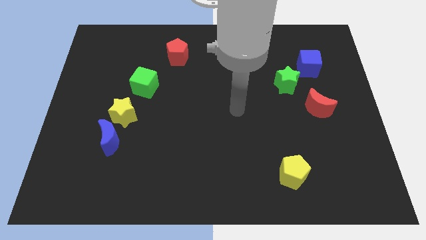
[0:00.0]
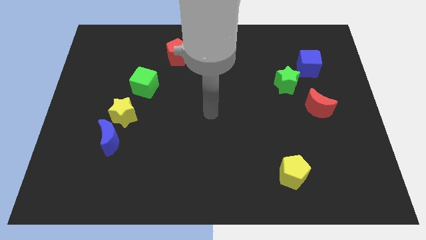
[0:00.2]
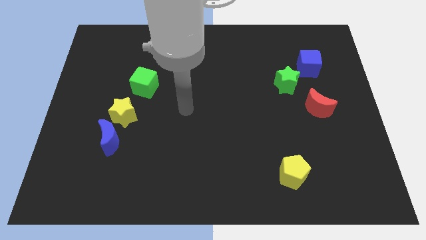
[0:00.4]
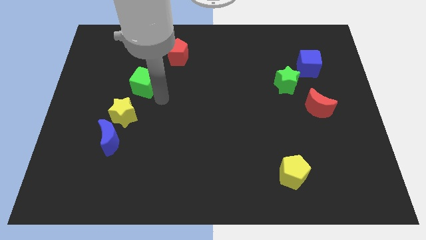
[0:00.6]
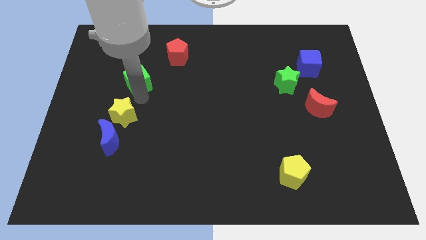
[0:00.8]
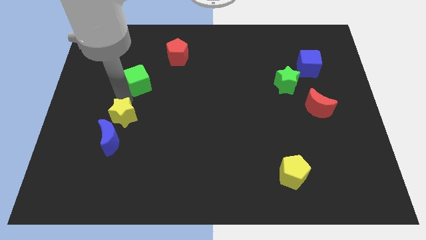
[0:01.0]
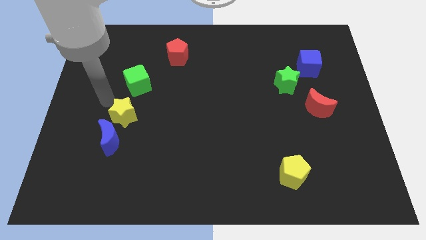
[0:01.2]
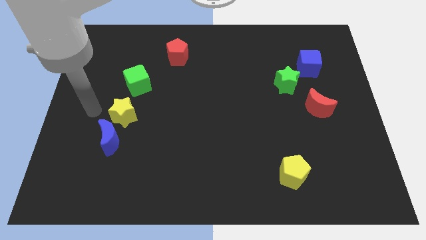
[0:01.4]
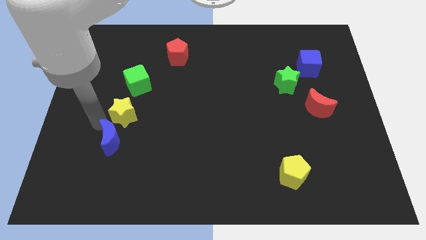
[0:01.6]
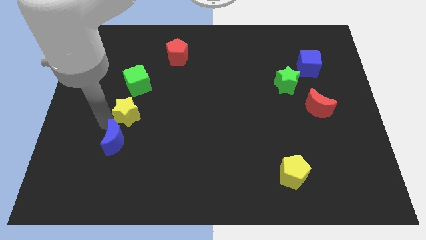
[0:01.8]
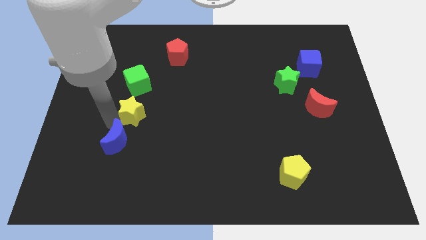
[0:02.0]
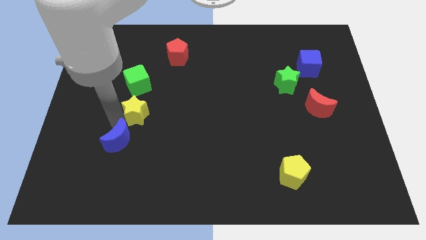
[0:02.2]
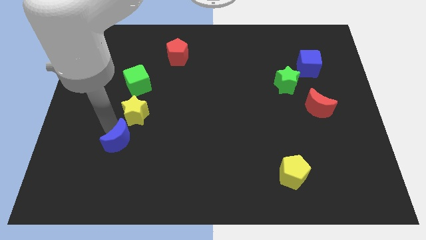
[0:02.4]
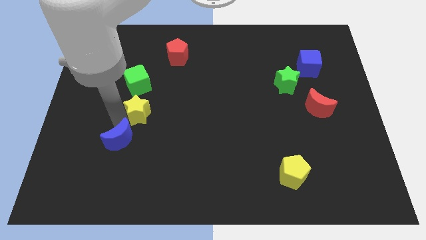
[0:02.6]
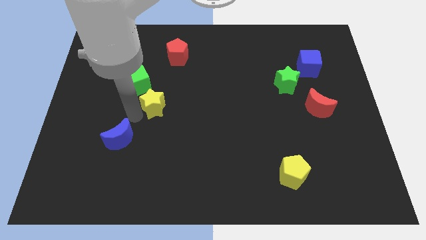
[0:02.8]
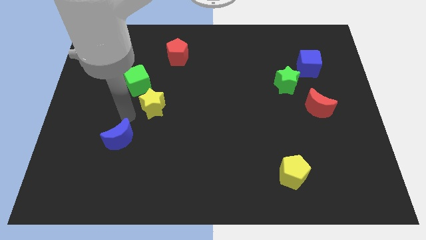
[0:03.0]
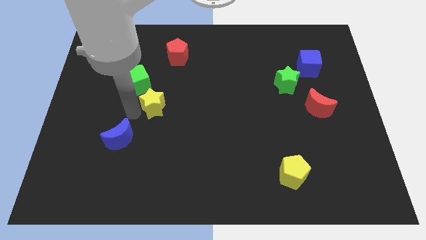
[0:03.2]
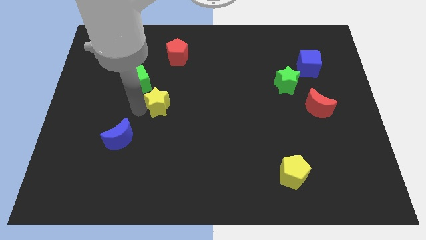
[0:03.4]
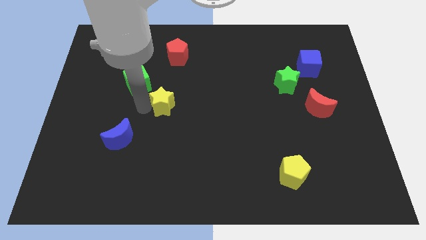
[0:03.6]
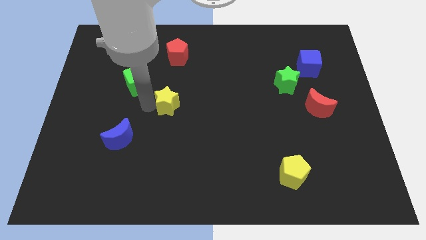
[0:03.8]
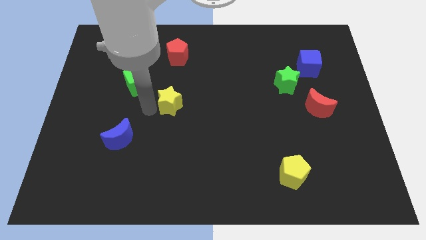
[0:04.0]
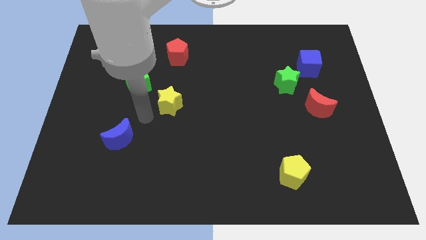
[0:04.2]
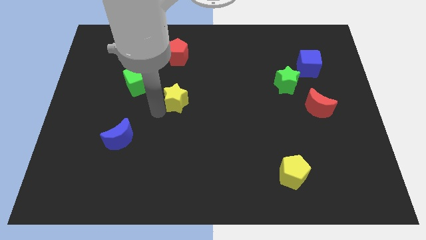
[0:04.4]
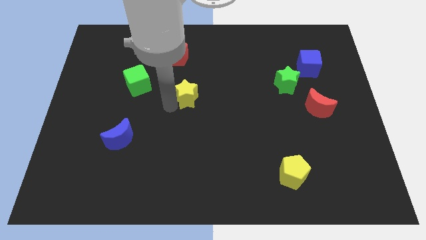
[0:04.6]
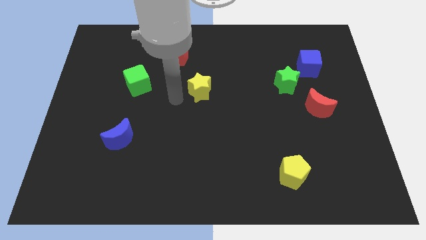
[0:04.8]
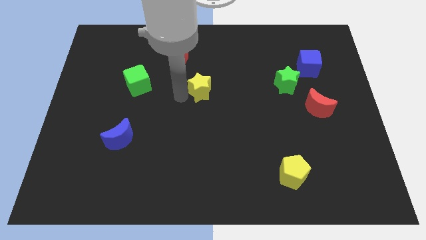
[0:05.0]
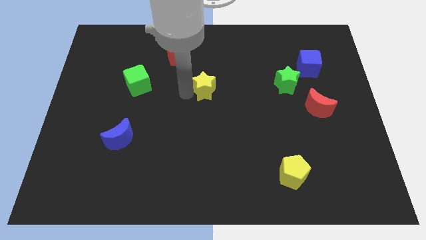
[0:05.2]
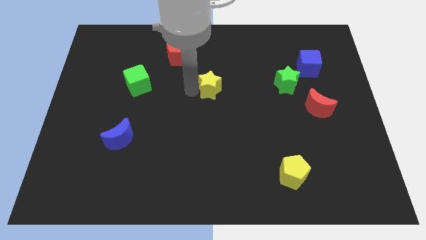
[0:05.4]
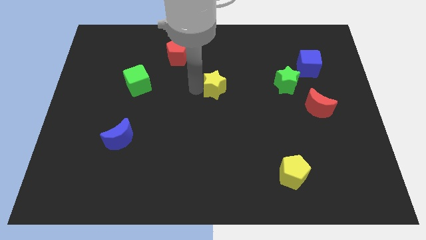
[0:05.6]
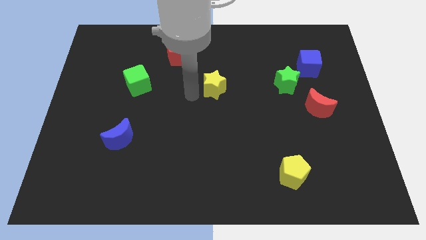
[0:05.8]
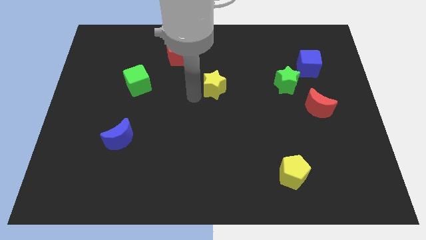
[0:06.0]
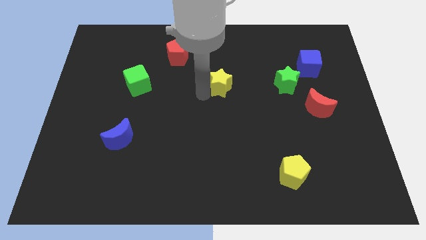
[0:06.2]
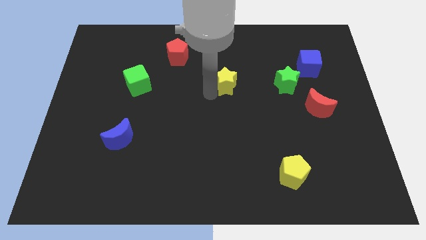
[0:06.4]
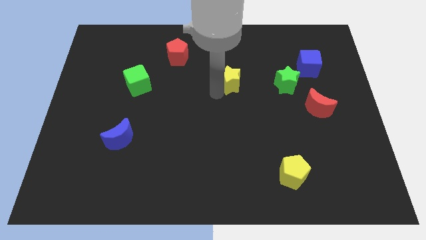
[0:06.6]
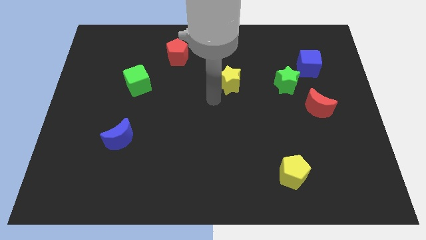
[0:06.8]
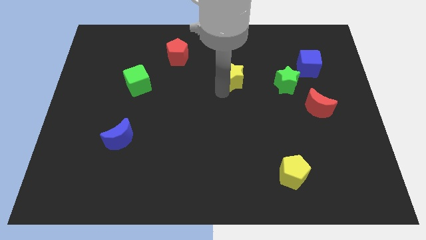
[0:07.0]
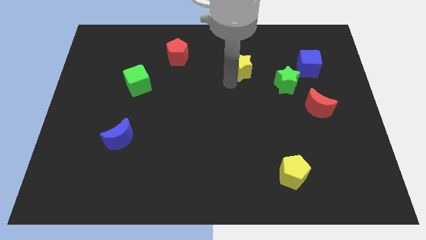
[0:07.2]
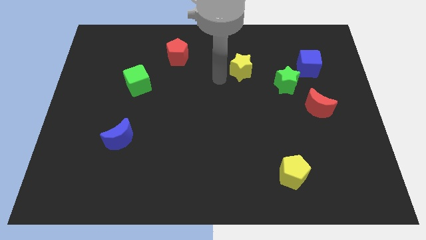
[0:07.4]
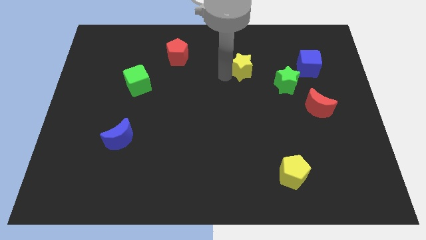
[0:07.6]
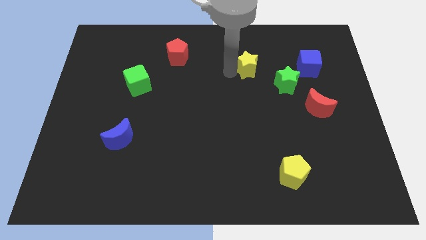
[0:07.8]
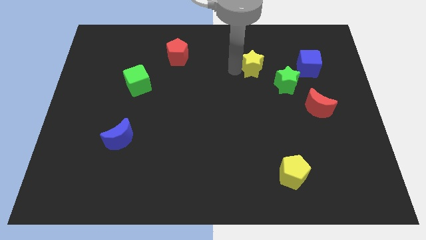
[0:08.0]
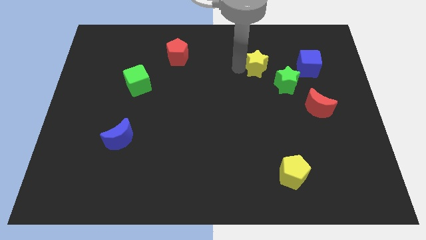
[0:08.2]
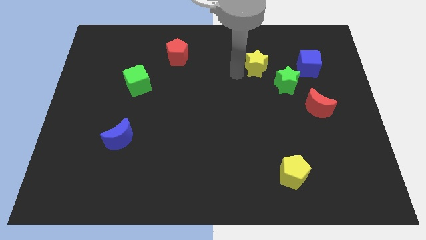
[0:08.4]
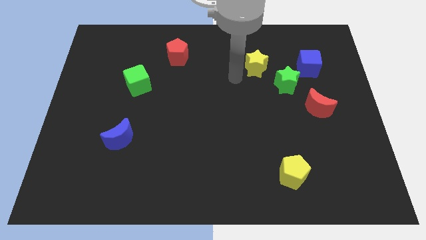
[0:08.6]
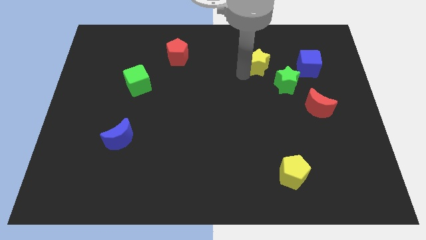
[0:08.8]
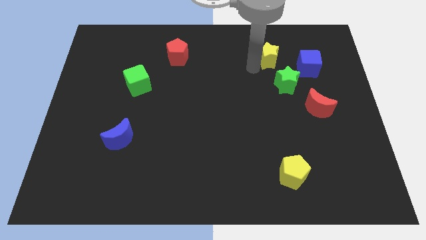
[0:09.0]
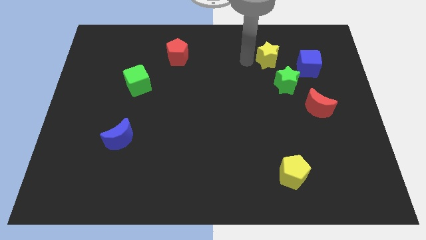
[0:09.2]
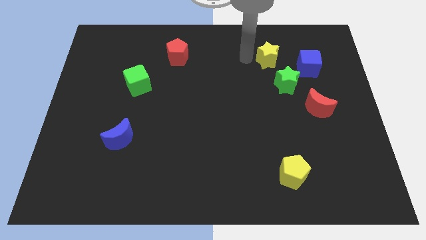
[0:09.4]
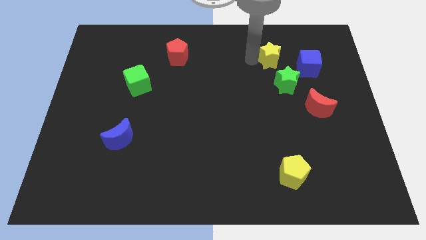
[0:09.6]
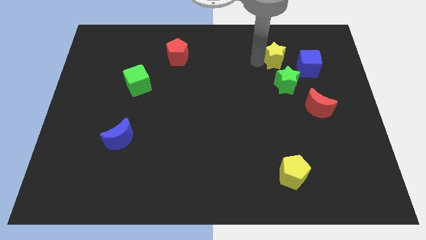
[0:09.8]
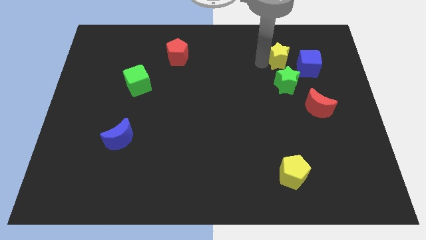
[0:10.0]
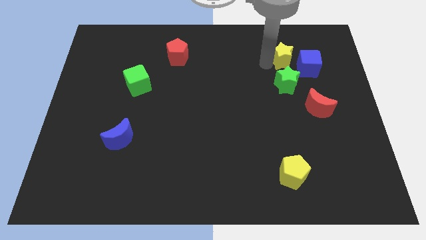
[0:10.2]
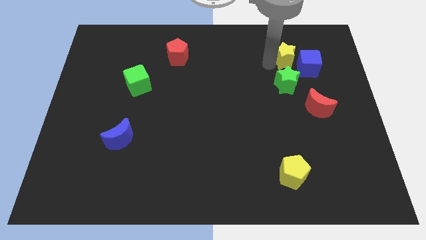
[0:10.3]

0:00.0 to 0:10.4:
push the yellow star close to the blue cube

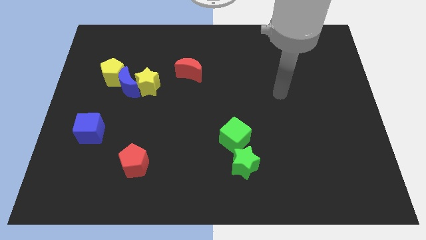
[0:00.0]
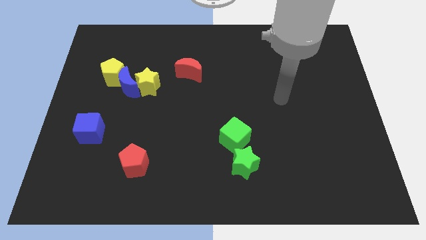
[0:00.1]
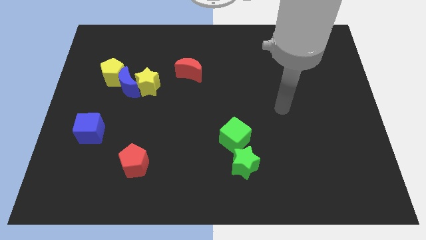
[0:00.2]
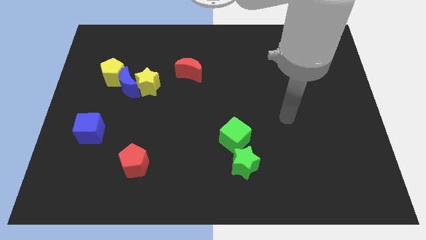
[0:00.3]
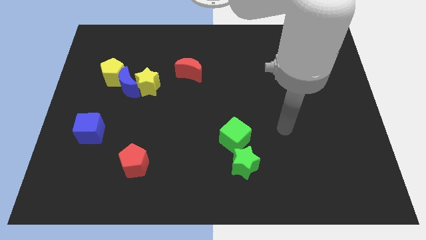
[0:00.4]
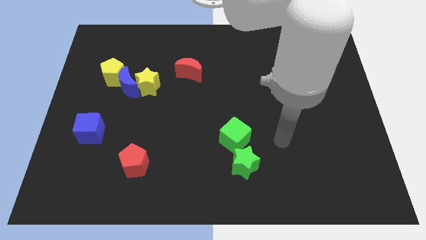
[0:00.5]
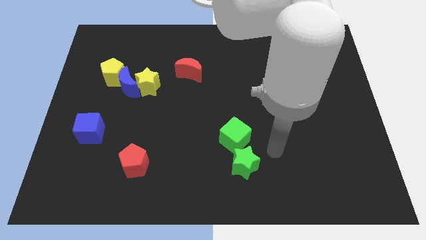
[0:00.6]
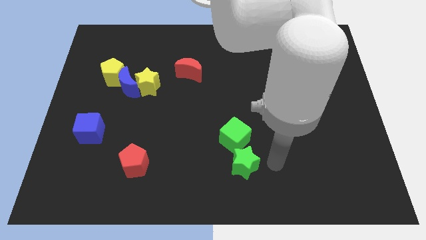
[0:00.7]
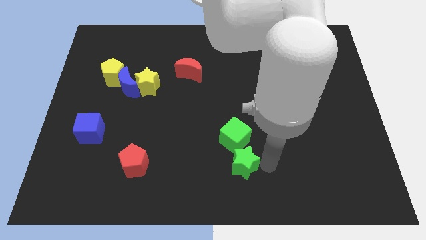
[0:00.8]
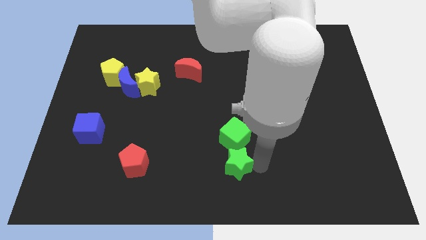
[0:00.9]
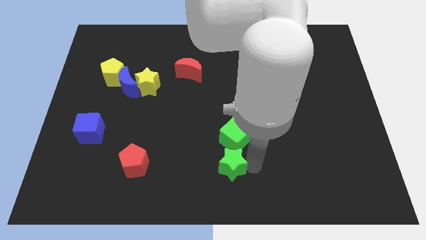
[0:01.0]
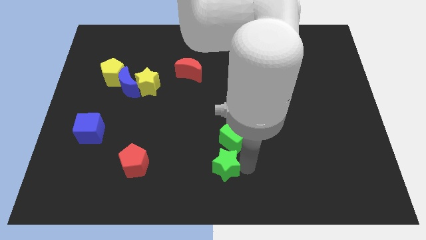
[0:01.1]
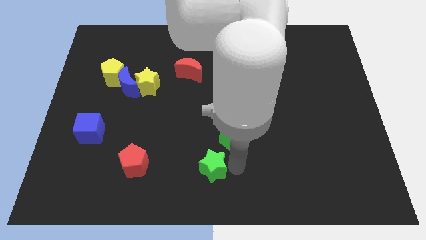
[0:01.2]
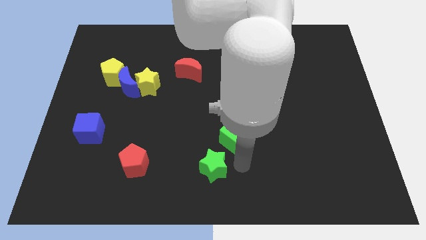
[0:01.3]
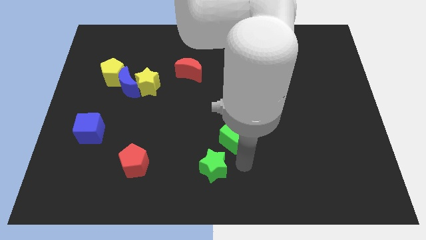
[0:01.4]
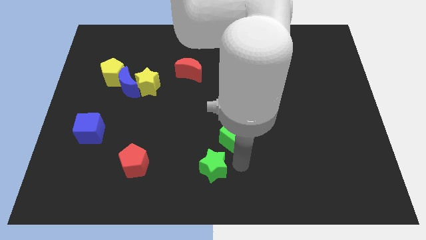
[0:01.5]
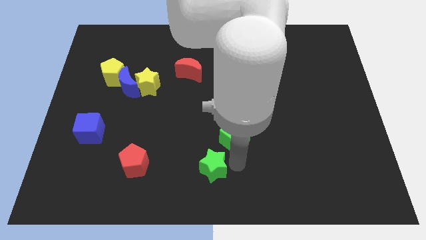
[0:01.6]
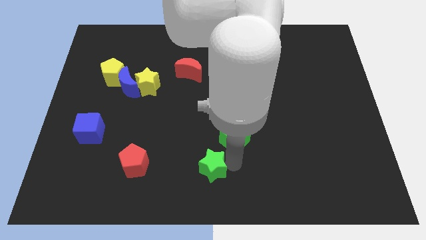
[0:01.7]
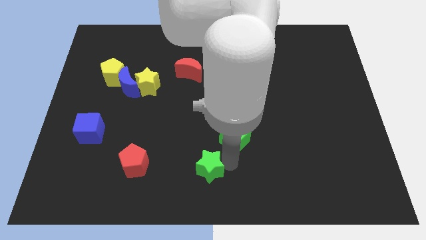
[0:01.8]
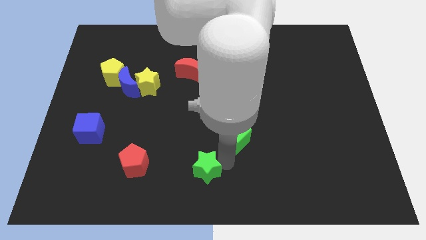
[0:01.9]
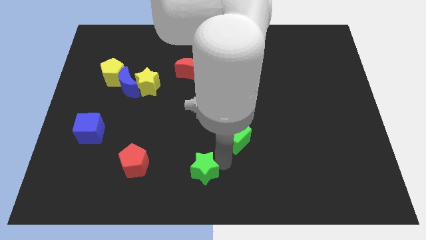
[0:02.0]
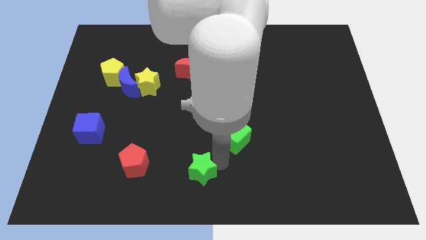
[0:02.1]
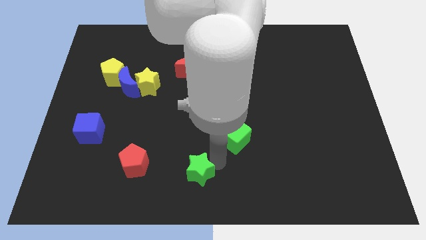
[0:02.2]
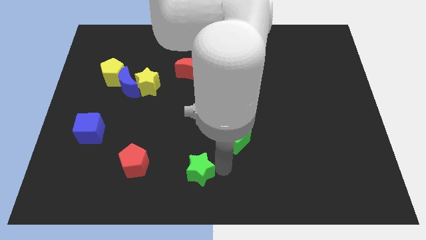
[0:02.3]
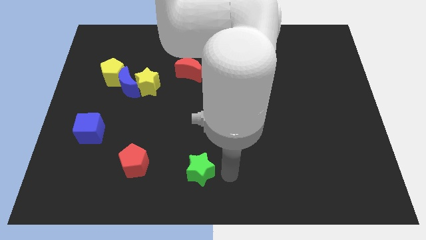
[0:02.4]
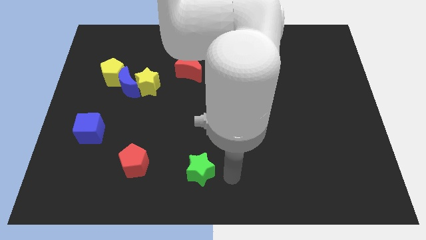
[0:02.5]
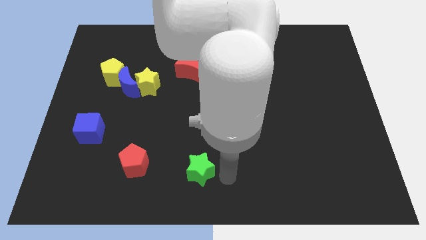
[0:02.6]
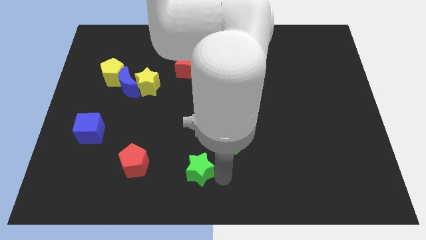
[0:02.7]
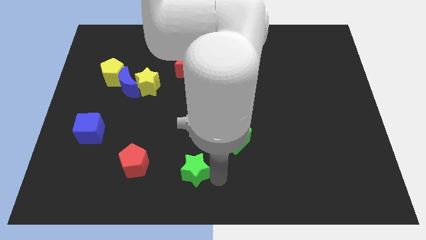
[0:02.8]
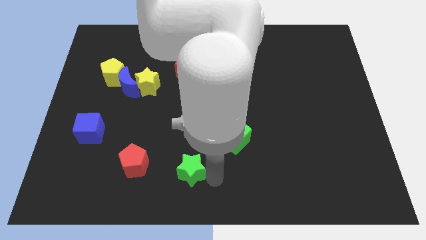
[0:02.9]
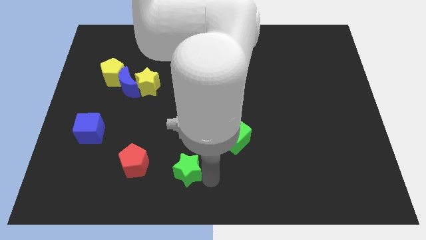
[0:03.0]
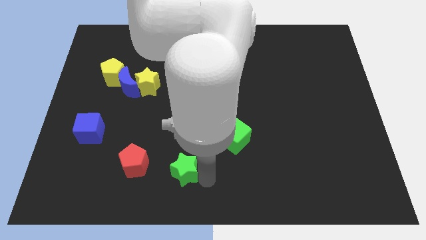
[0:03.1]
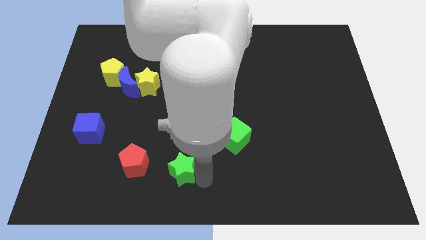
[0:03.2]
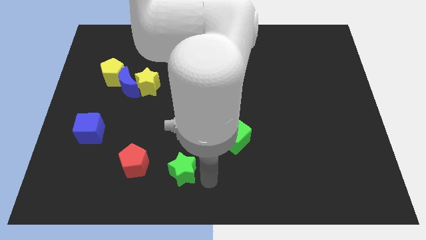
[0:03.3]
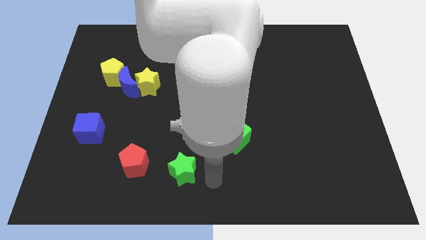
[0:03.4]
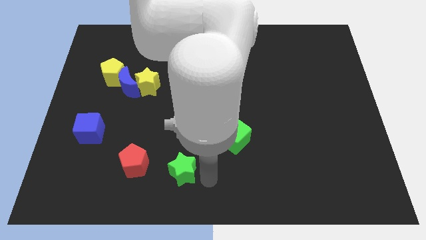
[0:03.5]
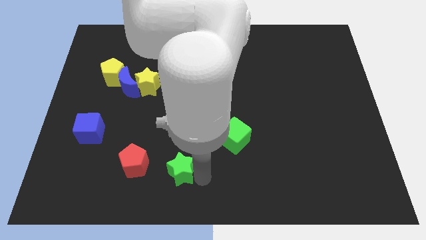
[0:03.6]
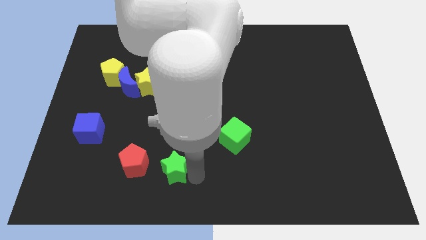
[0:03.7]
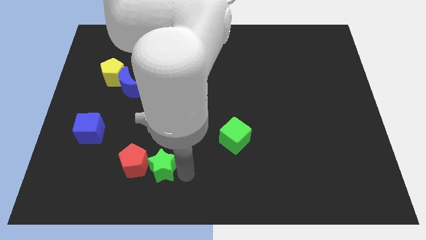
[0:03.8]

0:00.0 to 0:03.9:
put the green star to the red pentagon
